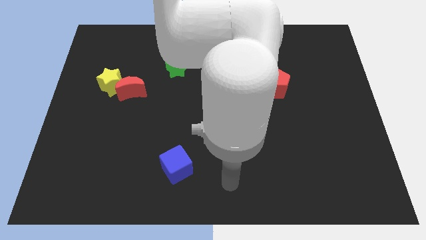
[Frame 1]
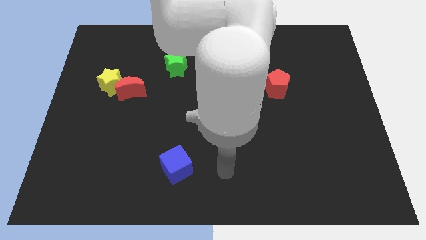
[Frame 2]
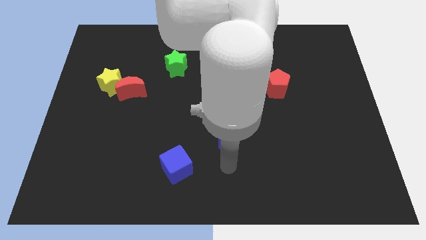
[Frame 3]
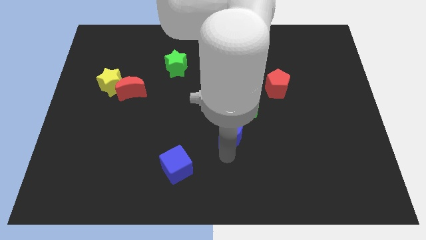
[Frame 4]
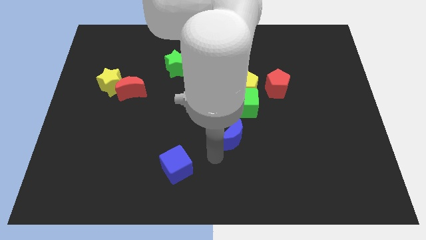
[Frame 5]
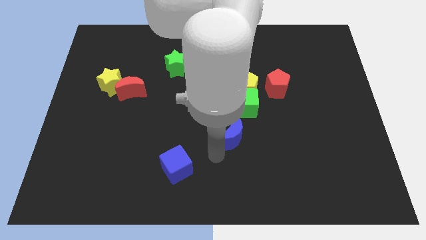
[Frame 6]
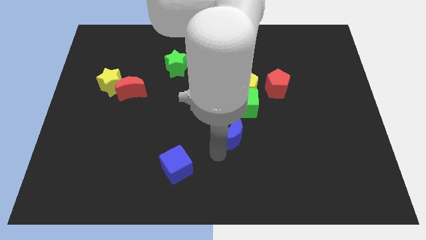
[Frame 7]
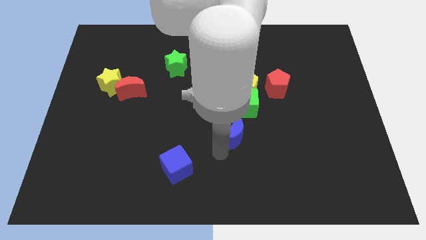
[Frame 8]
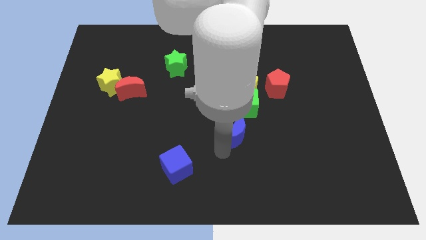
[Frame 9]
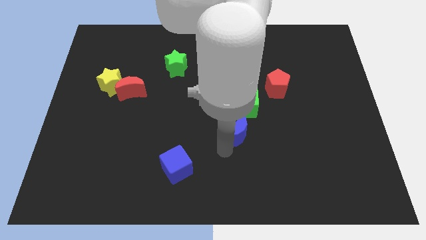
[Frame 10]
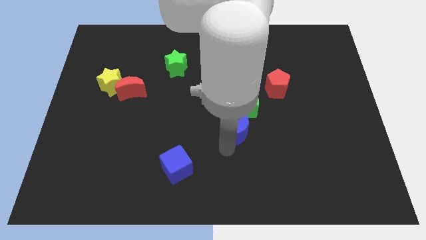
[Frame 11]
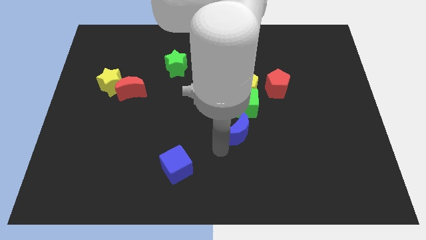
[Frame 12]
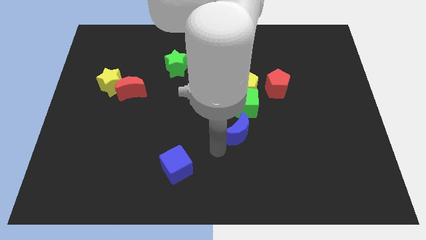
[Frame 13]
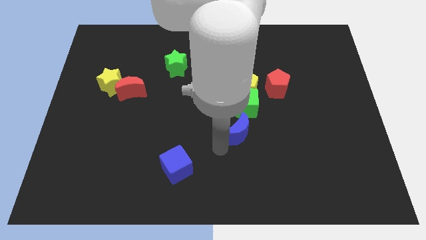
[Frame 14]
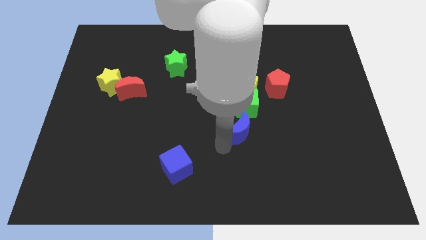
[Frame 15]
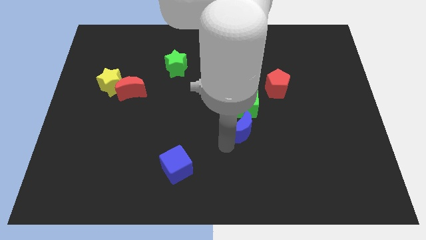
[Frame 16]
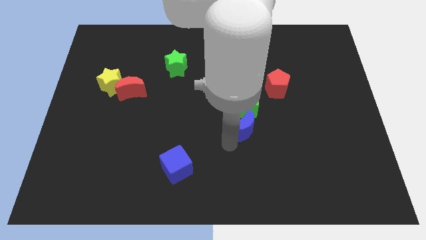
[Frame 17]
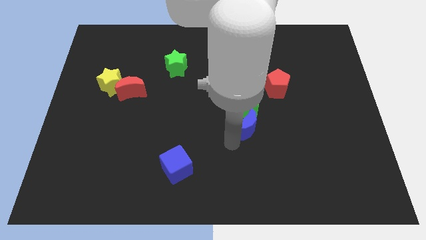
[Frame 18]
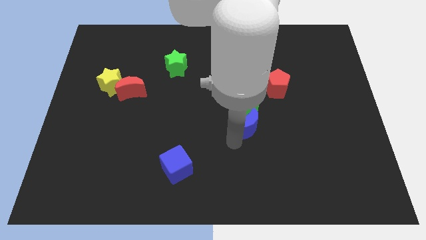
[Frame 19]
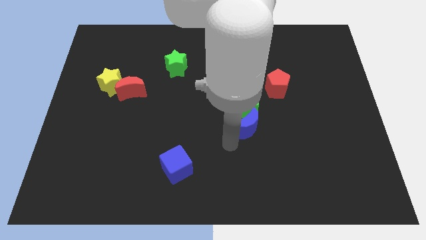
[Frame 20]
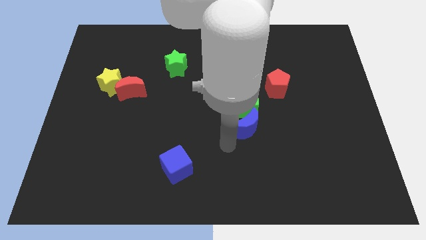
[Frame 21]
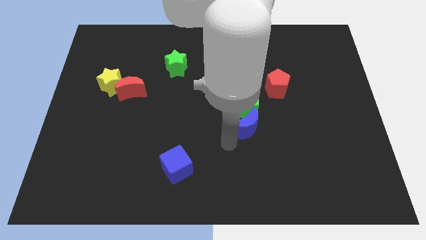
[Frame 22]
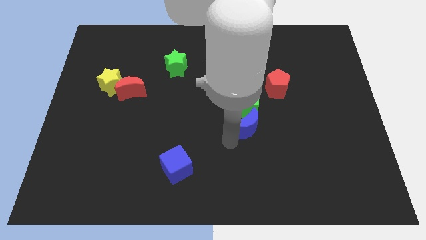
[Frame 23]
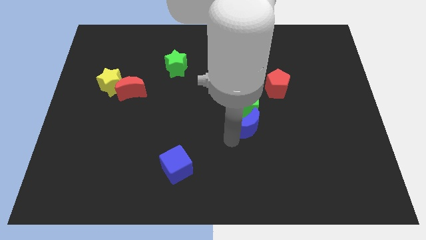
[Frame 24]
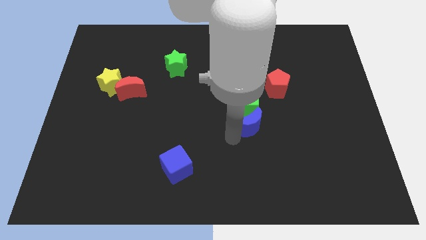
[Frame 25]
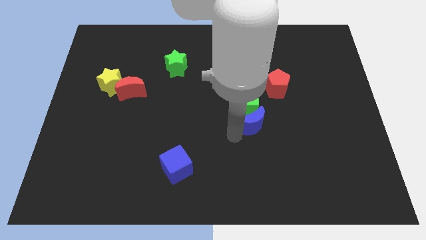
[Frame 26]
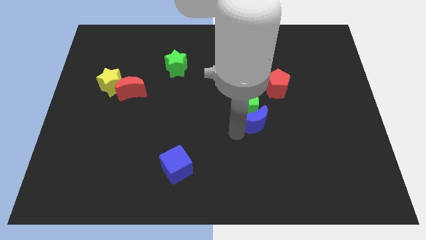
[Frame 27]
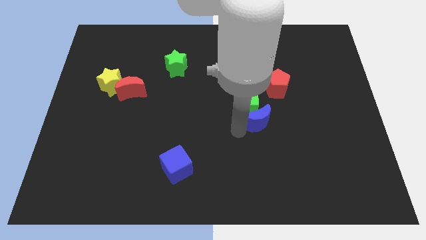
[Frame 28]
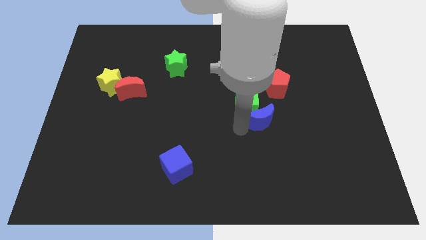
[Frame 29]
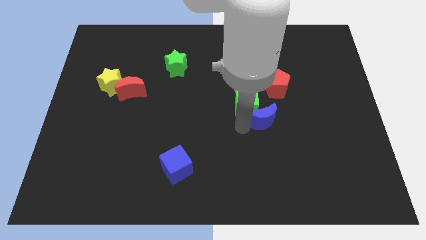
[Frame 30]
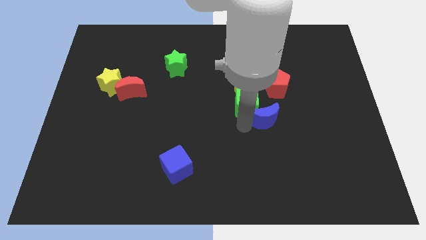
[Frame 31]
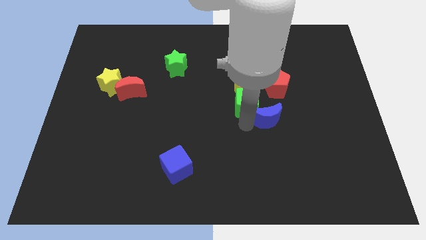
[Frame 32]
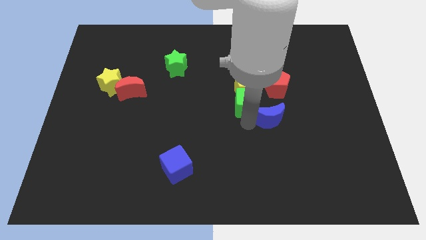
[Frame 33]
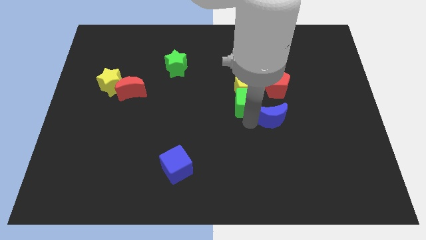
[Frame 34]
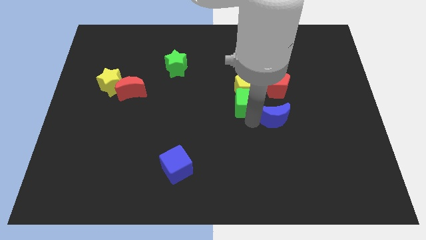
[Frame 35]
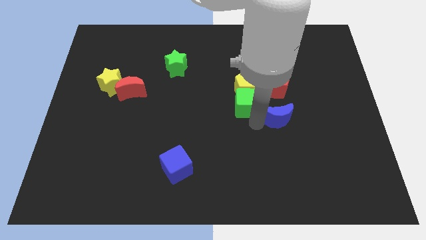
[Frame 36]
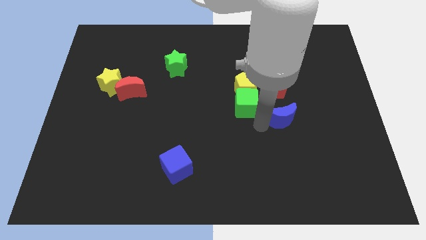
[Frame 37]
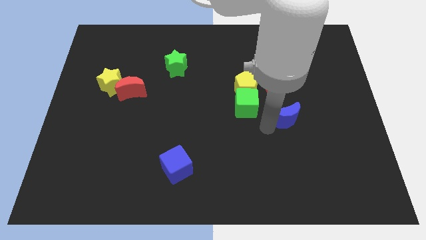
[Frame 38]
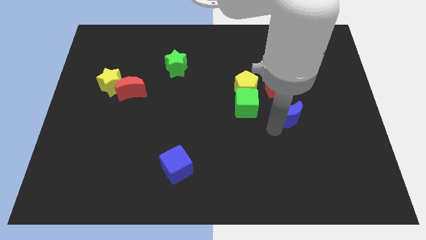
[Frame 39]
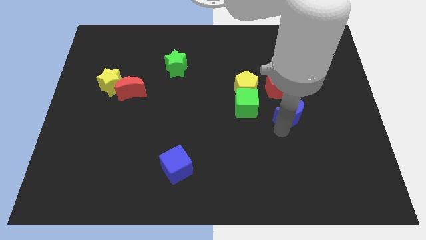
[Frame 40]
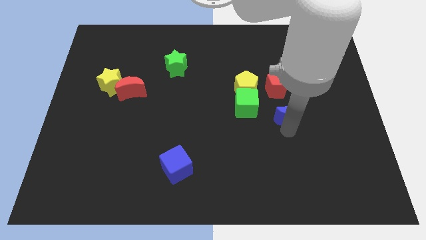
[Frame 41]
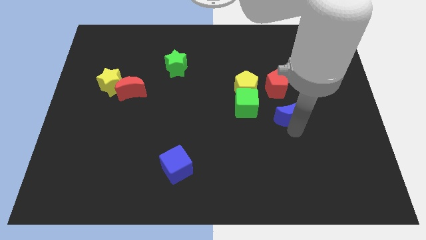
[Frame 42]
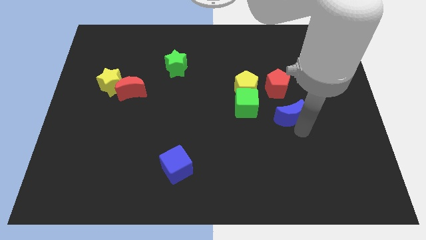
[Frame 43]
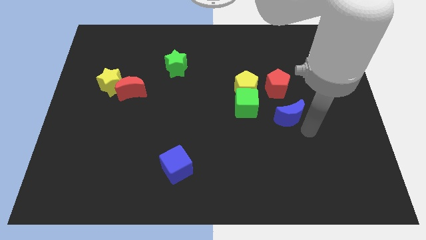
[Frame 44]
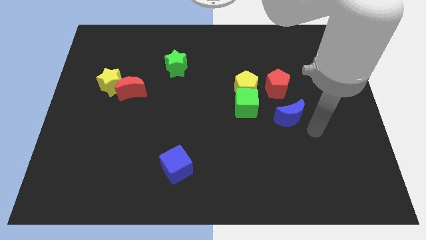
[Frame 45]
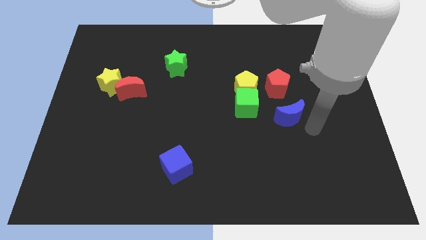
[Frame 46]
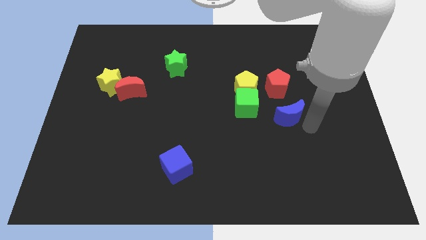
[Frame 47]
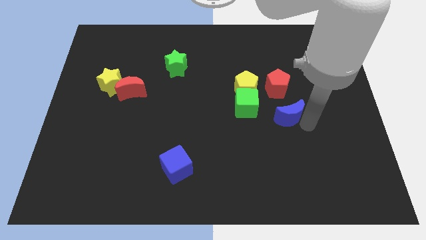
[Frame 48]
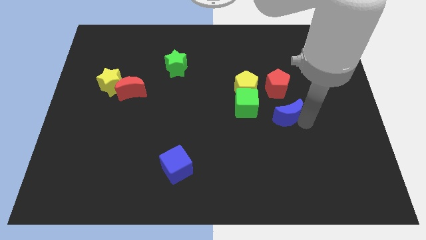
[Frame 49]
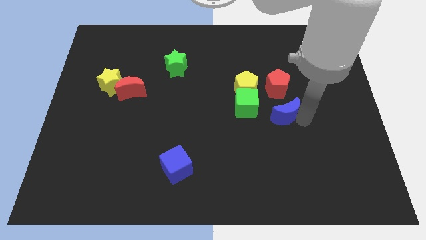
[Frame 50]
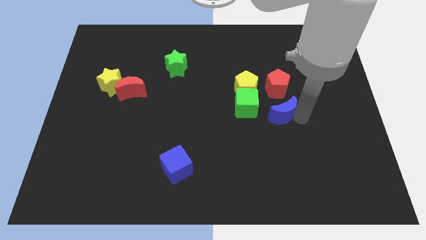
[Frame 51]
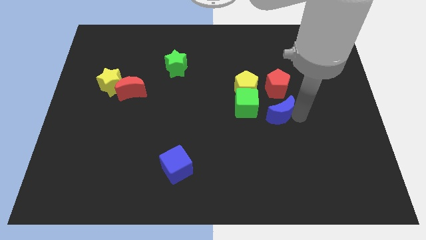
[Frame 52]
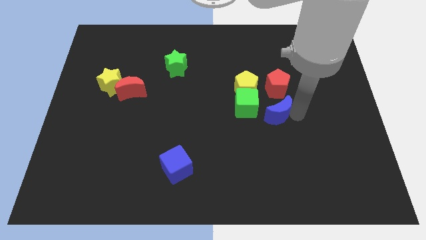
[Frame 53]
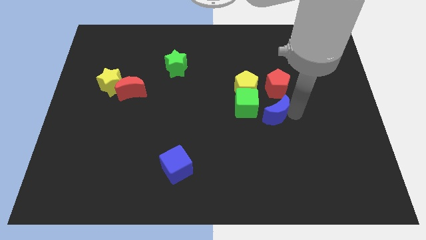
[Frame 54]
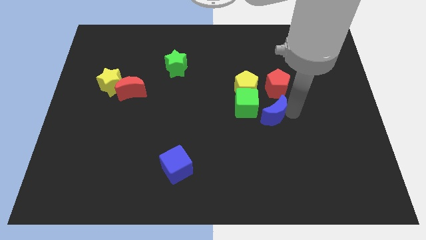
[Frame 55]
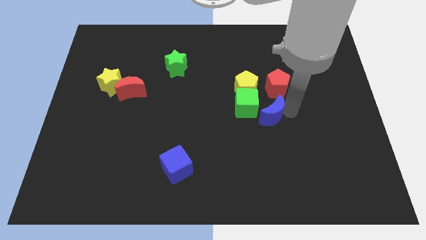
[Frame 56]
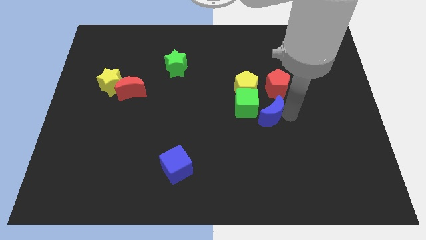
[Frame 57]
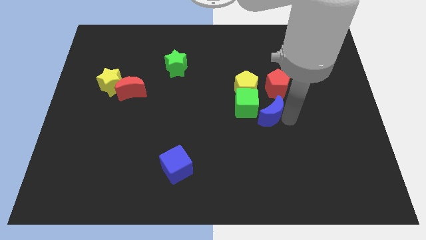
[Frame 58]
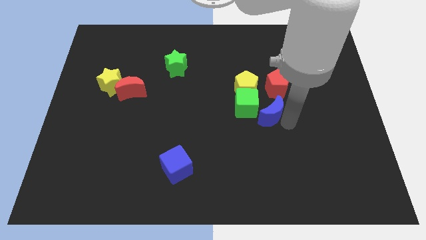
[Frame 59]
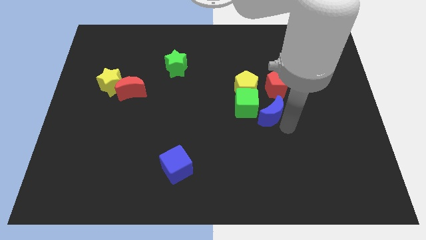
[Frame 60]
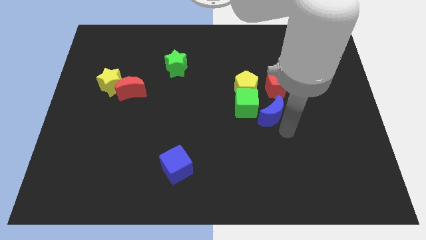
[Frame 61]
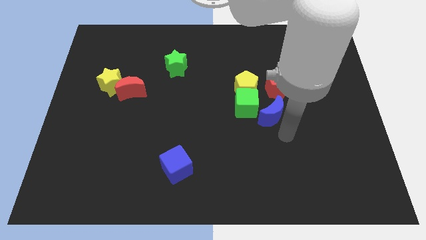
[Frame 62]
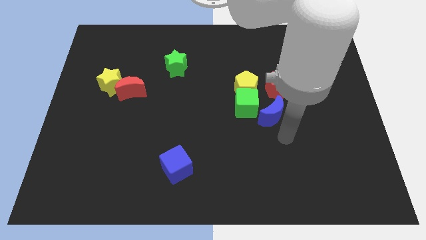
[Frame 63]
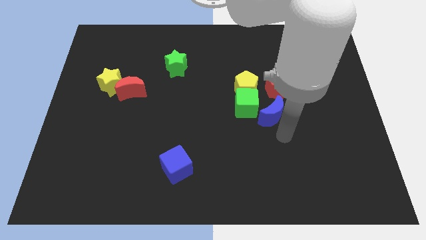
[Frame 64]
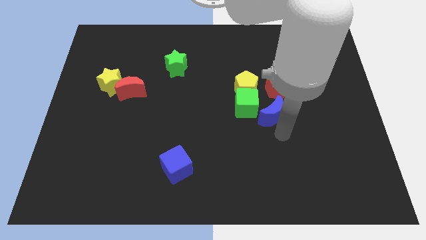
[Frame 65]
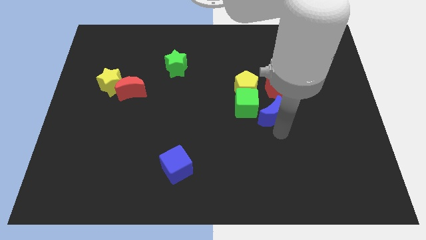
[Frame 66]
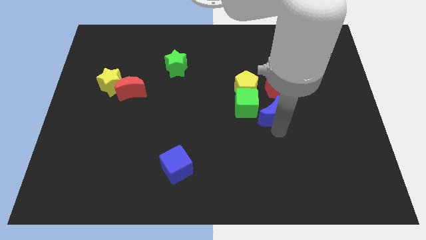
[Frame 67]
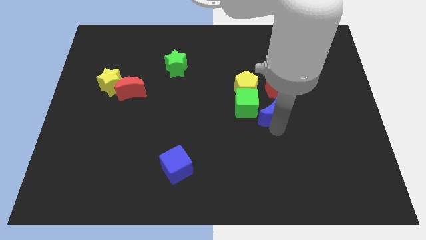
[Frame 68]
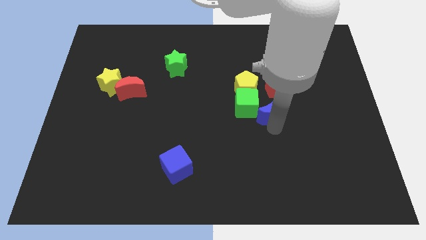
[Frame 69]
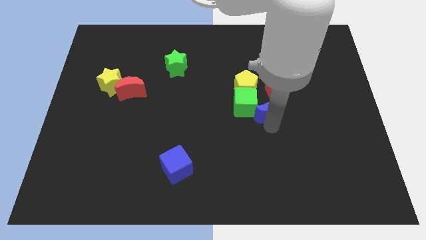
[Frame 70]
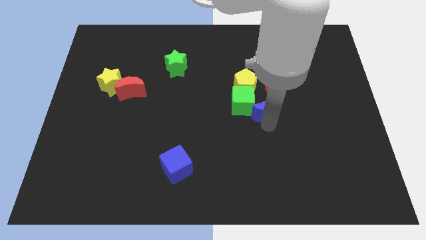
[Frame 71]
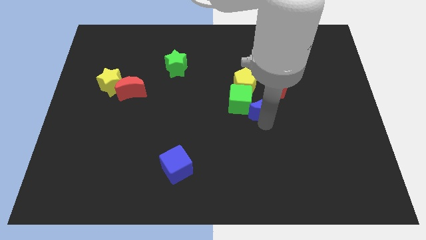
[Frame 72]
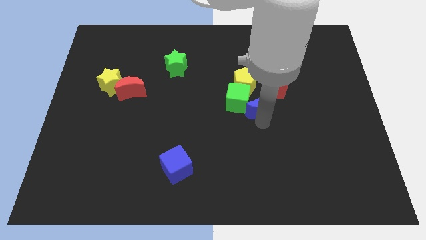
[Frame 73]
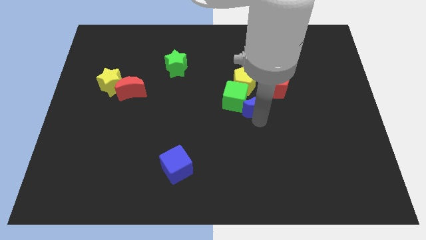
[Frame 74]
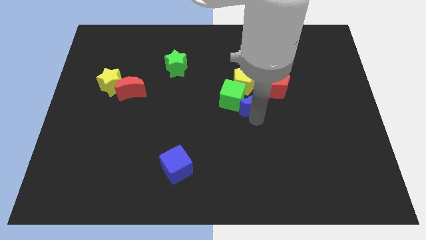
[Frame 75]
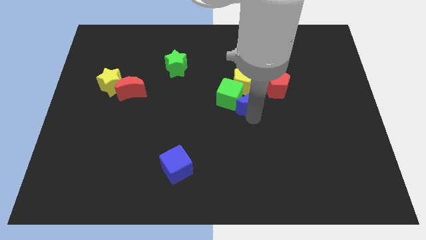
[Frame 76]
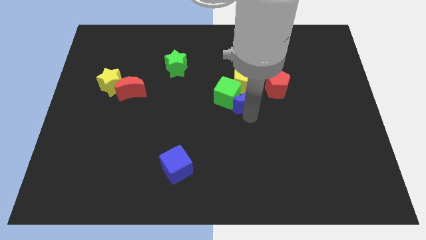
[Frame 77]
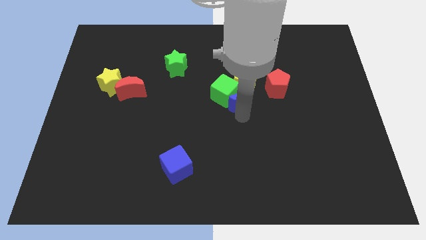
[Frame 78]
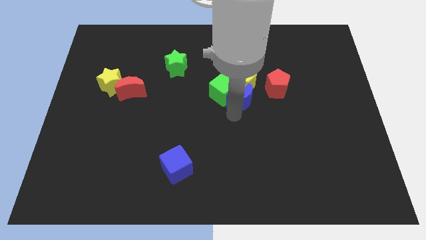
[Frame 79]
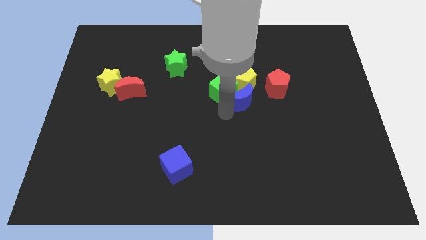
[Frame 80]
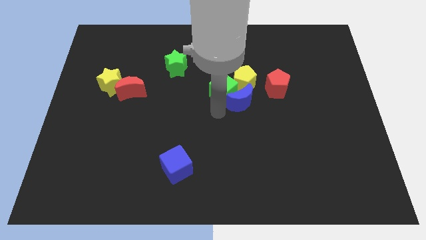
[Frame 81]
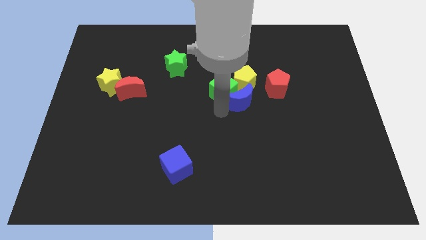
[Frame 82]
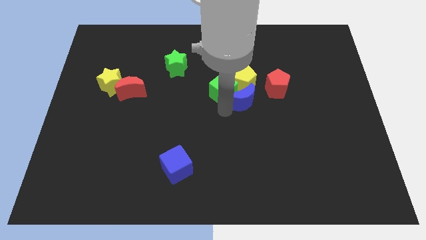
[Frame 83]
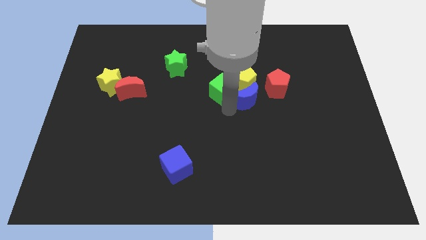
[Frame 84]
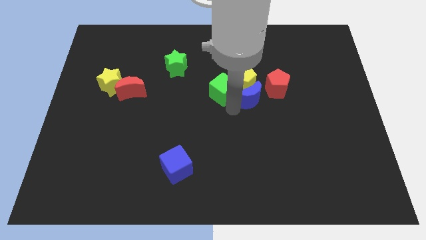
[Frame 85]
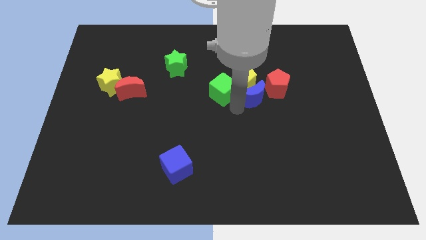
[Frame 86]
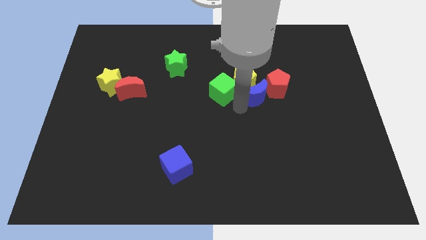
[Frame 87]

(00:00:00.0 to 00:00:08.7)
push the blue moon close to the red pentagon
